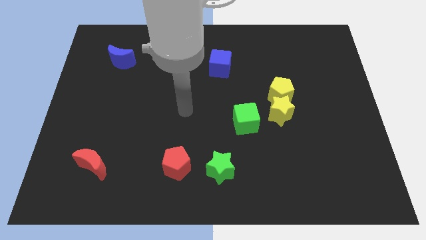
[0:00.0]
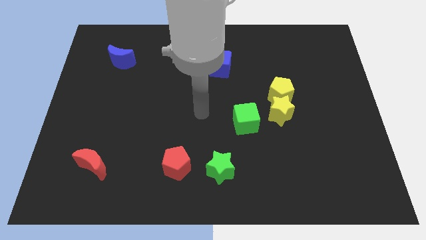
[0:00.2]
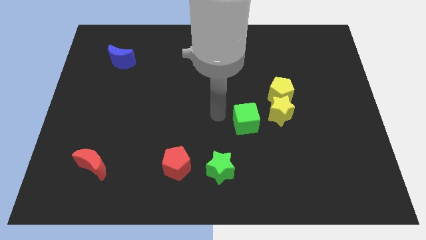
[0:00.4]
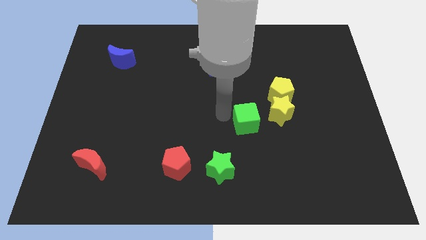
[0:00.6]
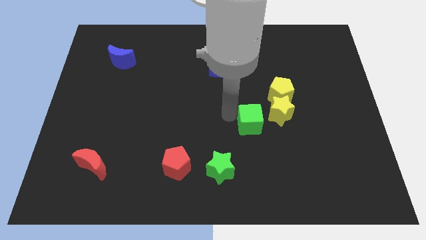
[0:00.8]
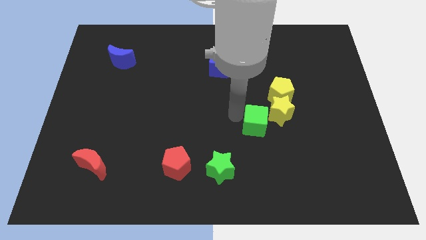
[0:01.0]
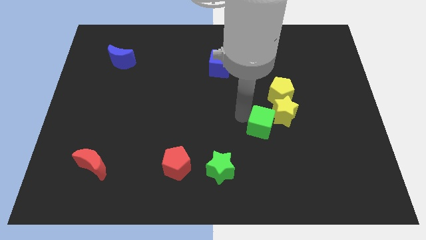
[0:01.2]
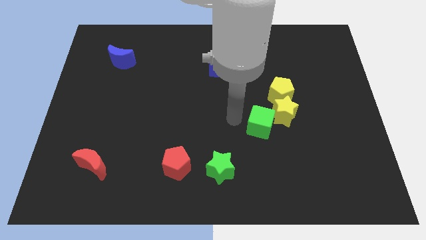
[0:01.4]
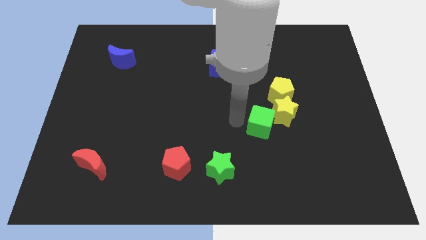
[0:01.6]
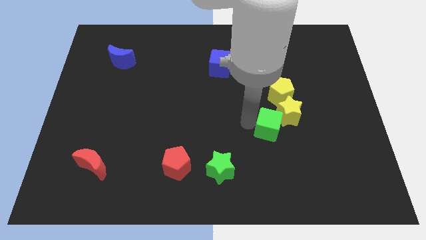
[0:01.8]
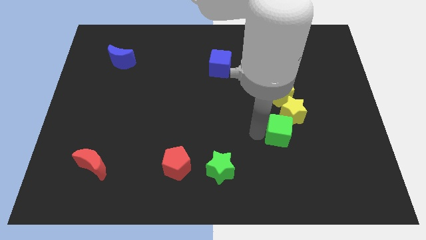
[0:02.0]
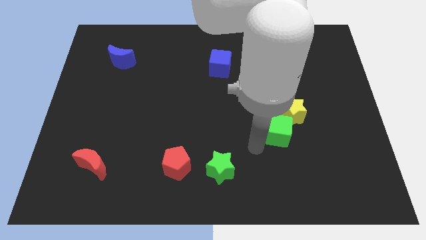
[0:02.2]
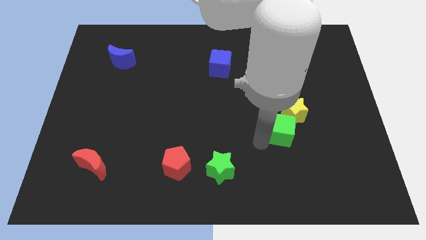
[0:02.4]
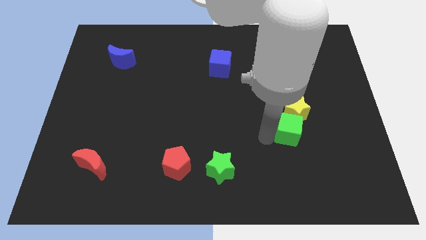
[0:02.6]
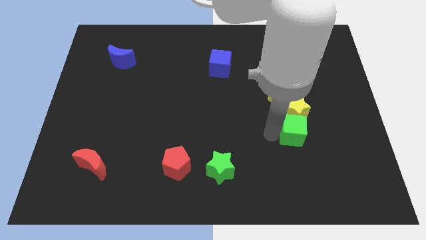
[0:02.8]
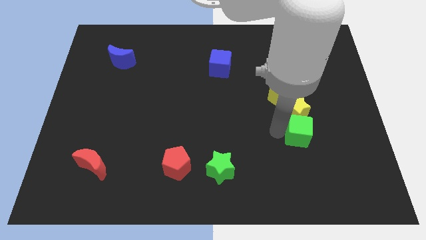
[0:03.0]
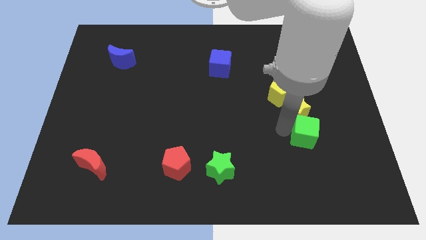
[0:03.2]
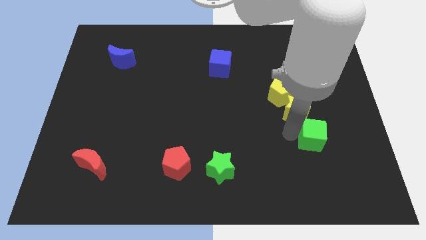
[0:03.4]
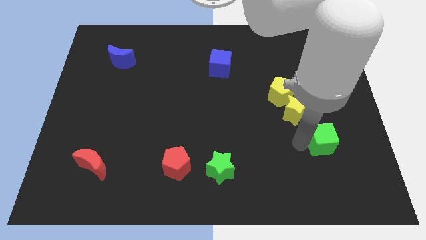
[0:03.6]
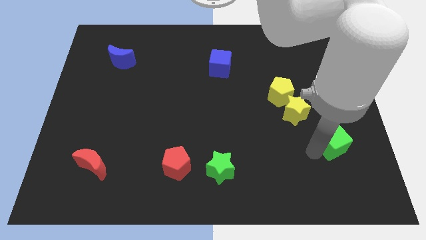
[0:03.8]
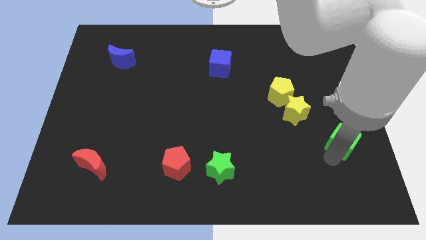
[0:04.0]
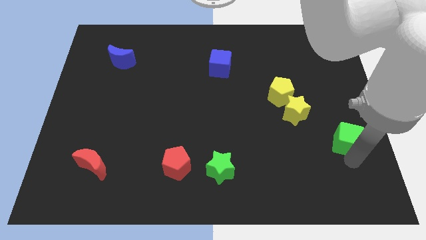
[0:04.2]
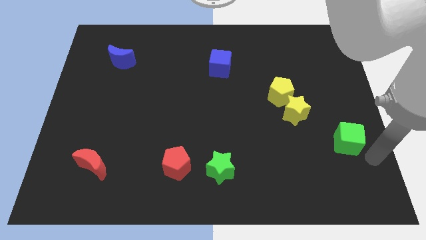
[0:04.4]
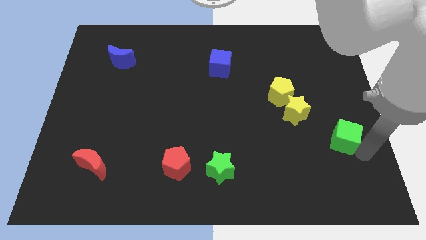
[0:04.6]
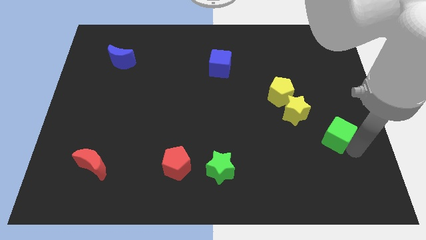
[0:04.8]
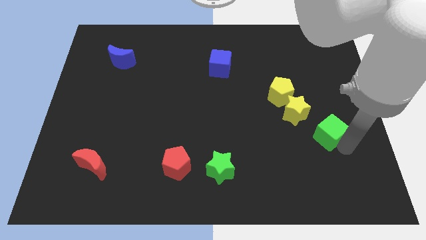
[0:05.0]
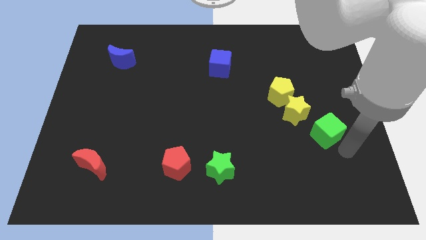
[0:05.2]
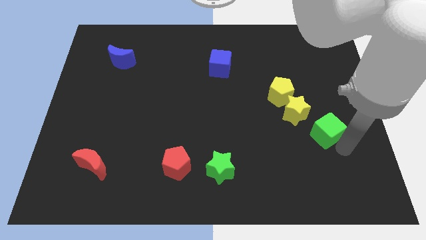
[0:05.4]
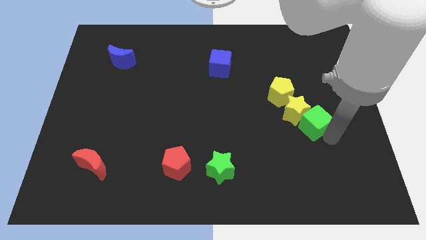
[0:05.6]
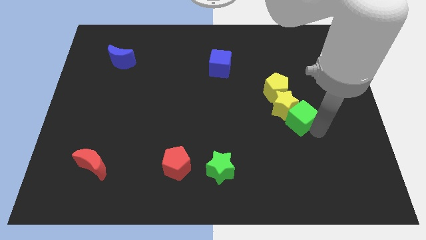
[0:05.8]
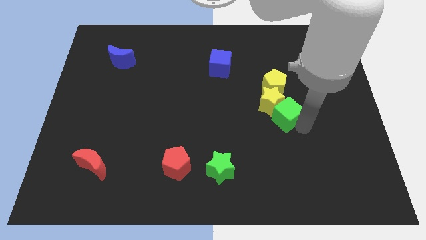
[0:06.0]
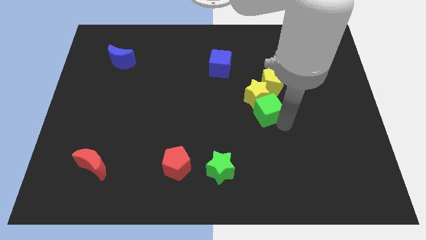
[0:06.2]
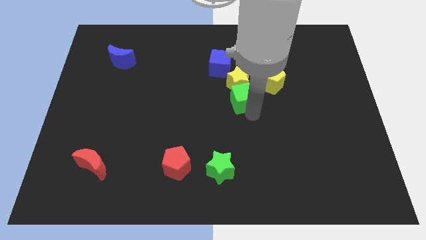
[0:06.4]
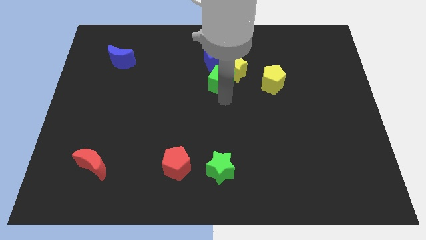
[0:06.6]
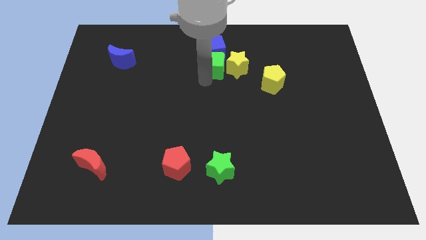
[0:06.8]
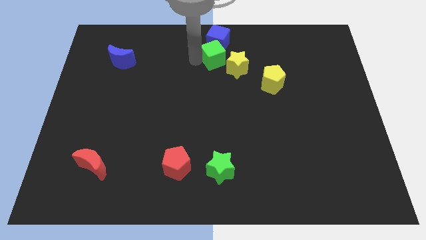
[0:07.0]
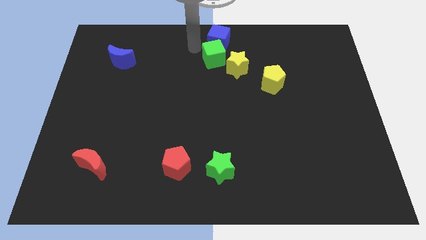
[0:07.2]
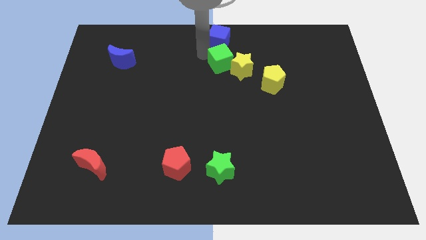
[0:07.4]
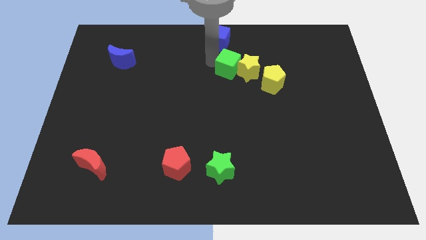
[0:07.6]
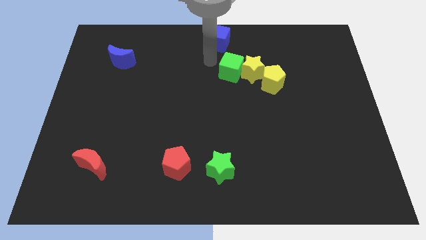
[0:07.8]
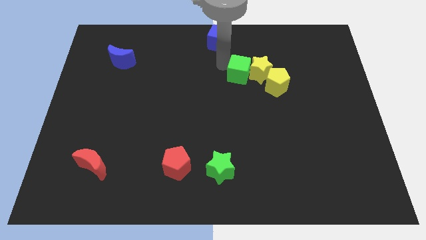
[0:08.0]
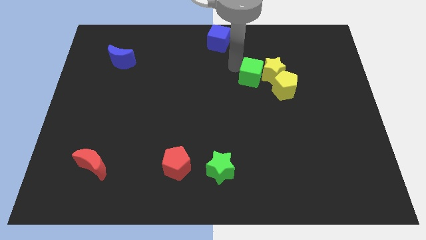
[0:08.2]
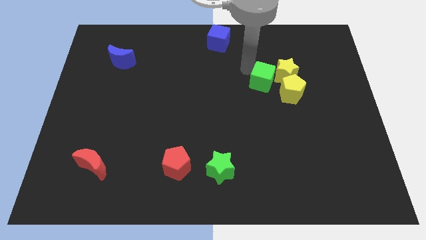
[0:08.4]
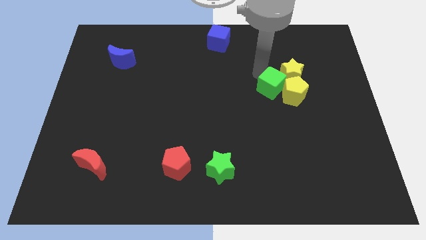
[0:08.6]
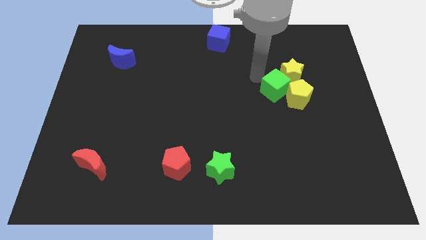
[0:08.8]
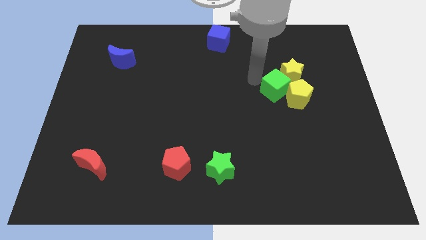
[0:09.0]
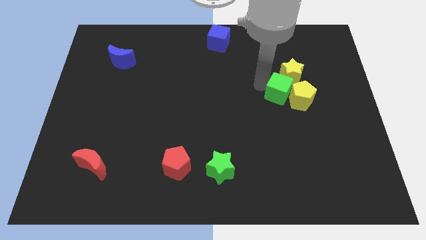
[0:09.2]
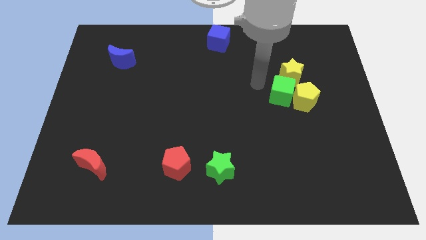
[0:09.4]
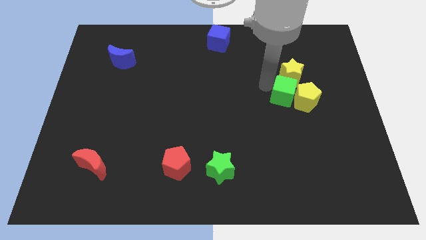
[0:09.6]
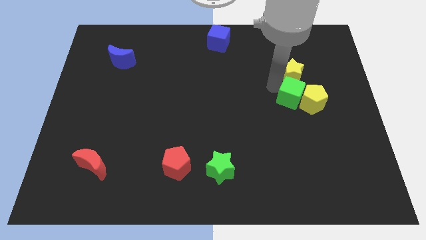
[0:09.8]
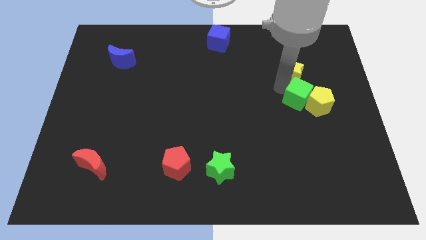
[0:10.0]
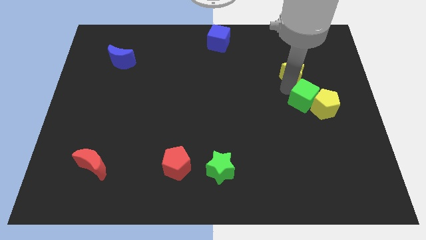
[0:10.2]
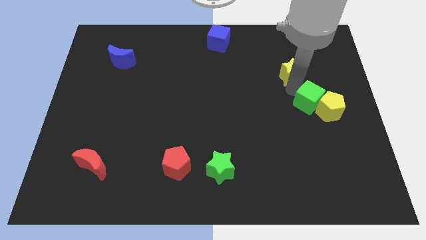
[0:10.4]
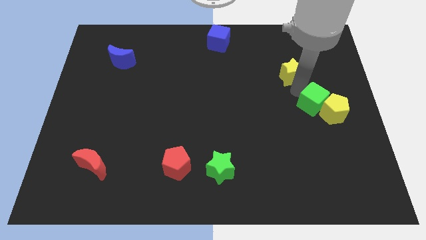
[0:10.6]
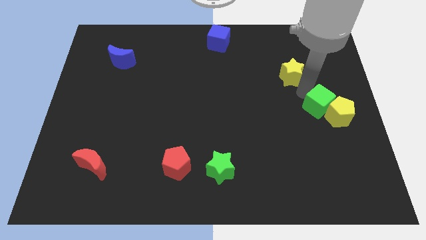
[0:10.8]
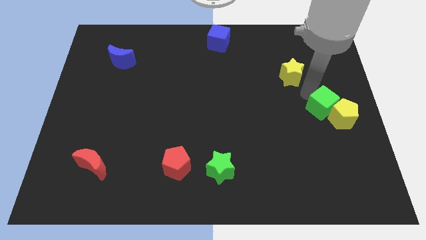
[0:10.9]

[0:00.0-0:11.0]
put the green cube to the right side of the board

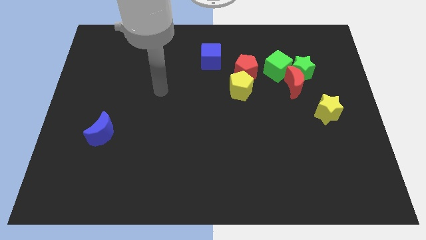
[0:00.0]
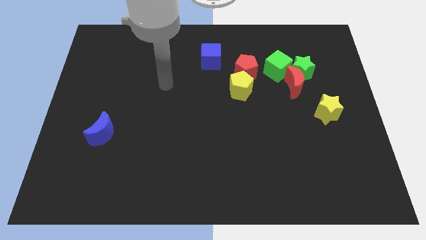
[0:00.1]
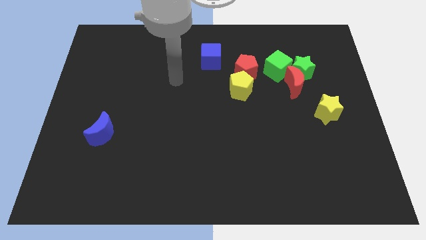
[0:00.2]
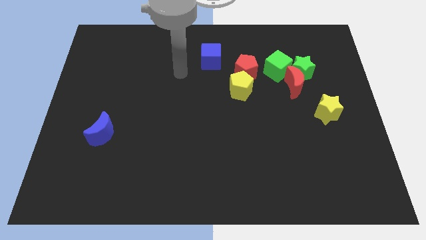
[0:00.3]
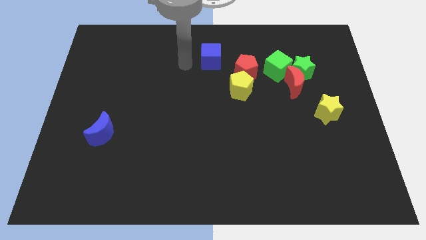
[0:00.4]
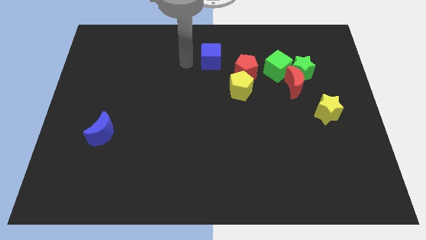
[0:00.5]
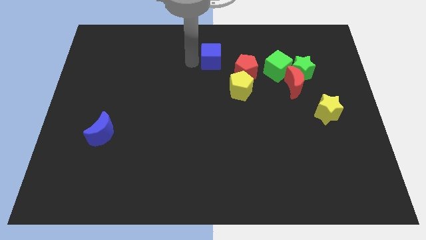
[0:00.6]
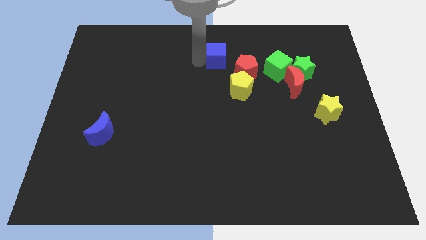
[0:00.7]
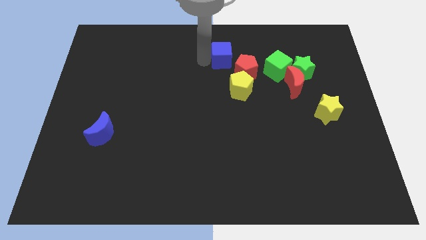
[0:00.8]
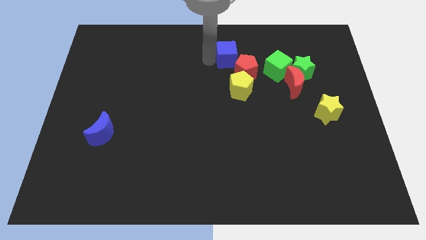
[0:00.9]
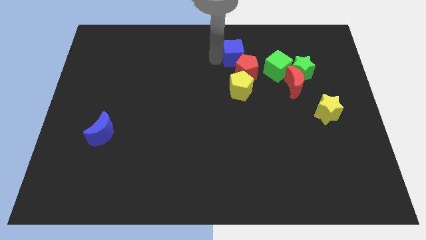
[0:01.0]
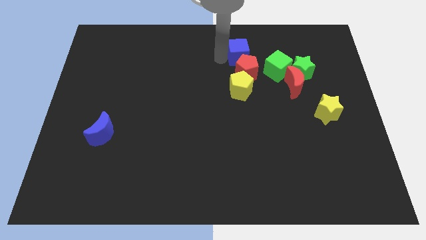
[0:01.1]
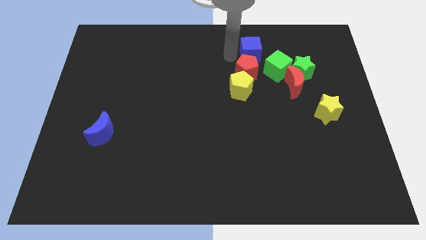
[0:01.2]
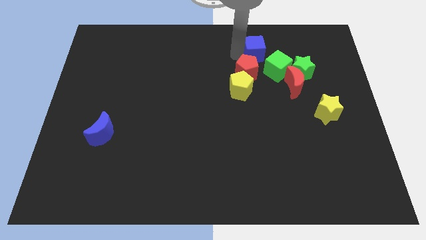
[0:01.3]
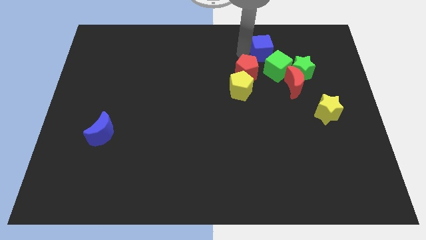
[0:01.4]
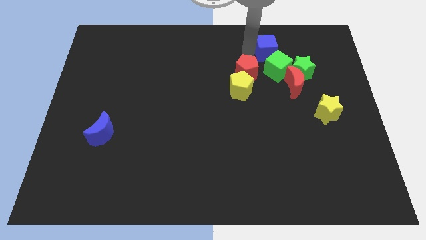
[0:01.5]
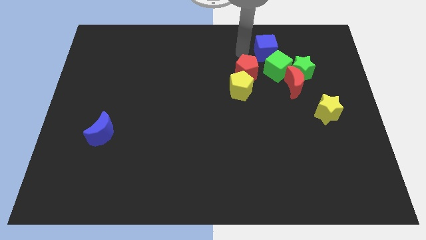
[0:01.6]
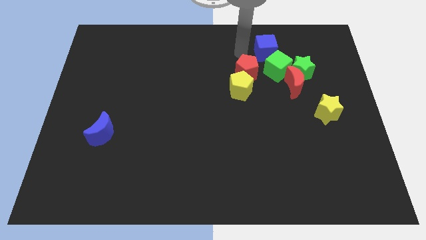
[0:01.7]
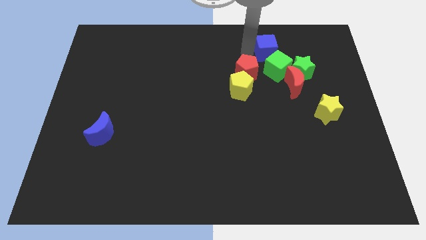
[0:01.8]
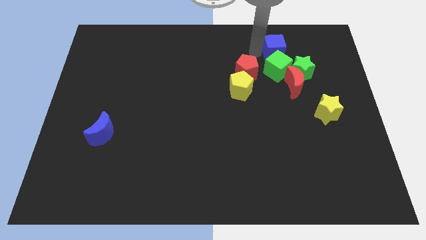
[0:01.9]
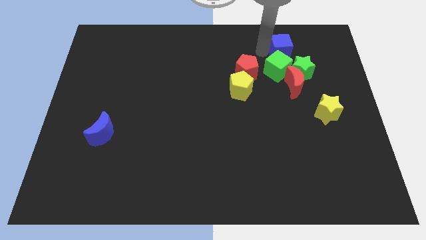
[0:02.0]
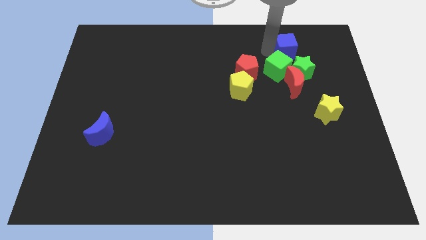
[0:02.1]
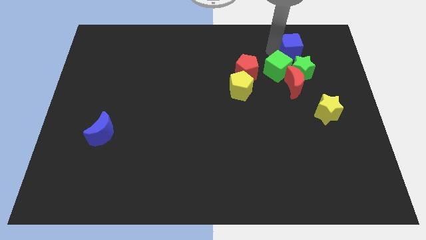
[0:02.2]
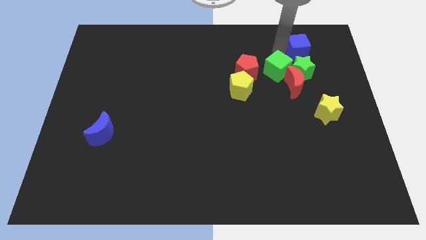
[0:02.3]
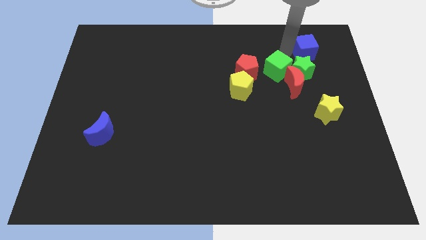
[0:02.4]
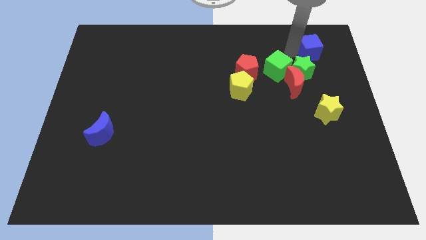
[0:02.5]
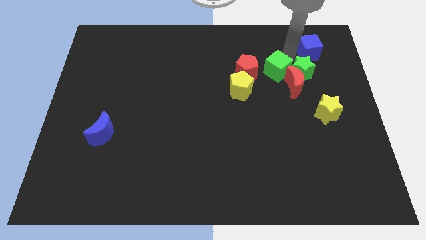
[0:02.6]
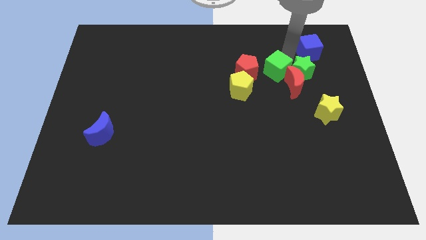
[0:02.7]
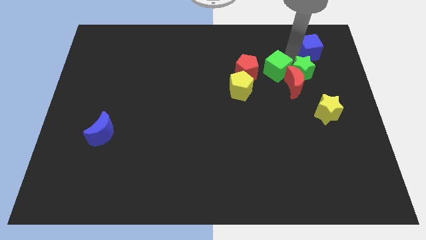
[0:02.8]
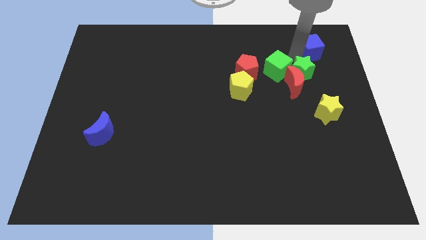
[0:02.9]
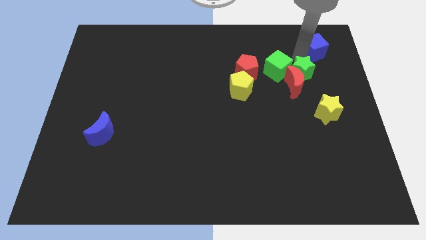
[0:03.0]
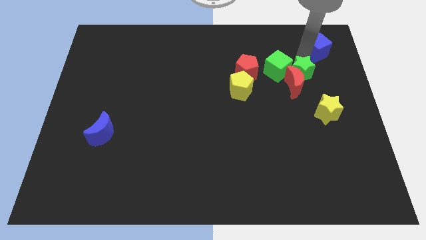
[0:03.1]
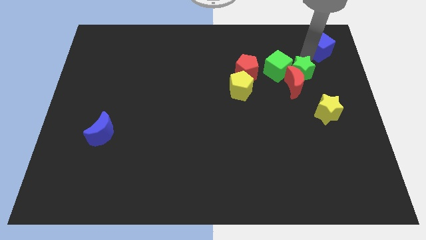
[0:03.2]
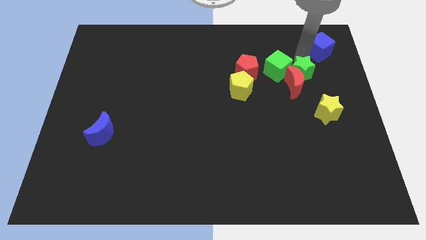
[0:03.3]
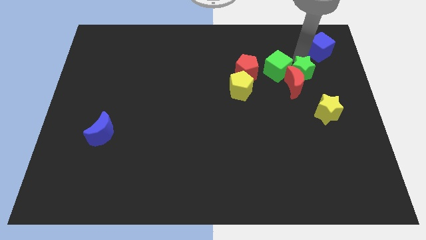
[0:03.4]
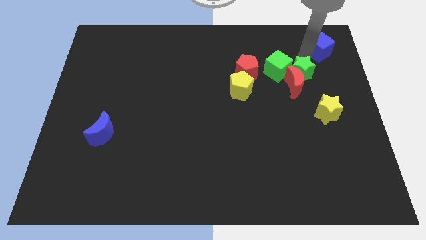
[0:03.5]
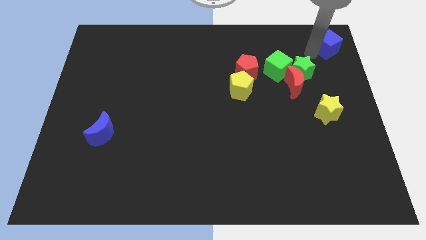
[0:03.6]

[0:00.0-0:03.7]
slide the blue cube to the top right
